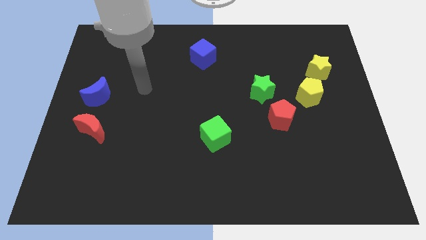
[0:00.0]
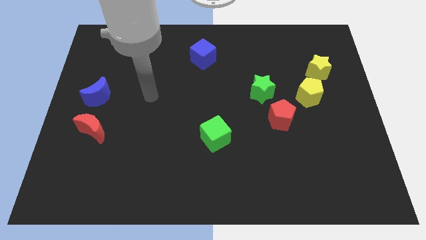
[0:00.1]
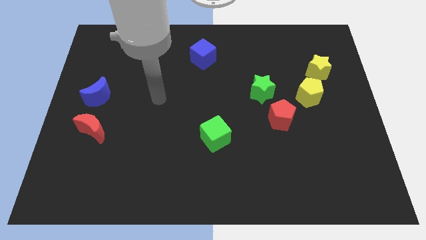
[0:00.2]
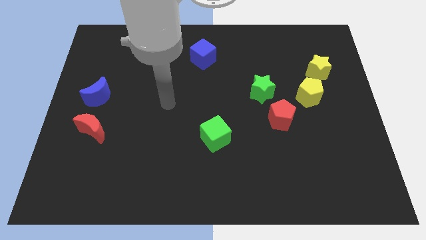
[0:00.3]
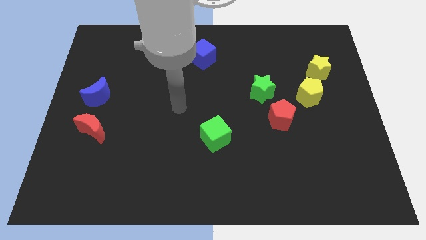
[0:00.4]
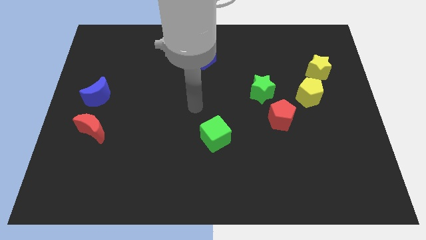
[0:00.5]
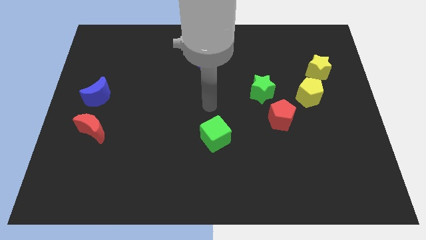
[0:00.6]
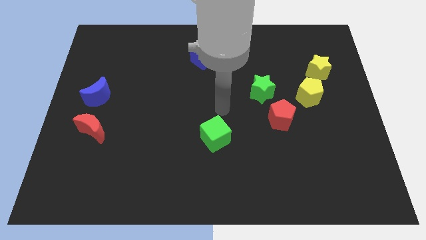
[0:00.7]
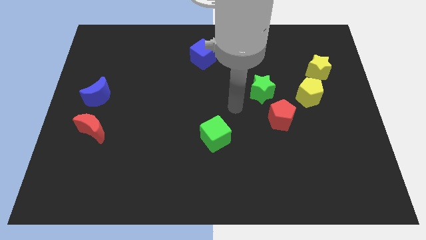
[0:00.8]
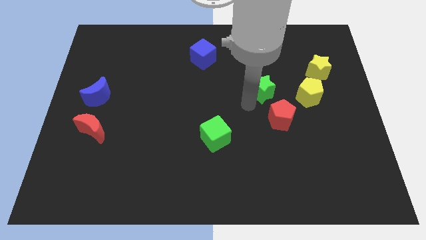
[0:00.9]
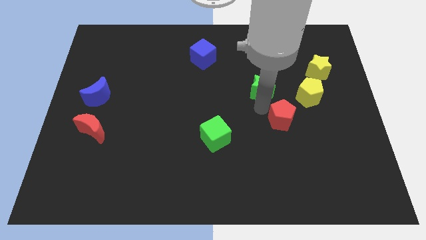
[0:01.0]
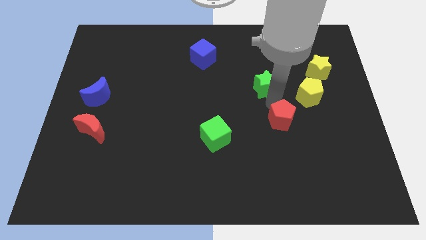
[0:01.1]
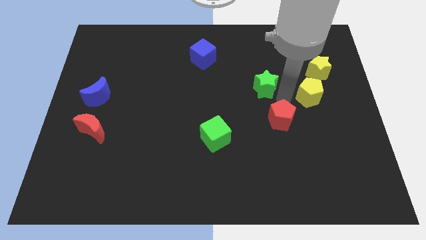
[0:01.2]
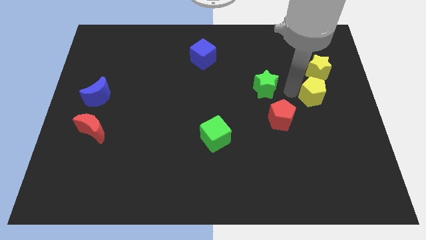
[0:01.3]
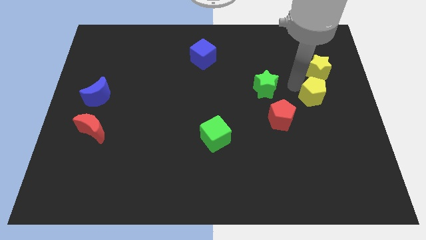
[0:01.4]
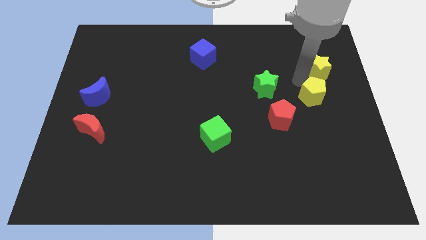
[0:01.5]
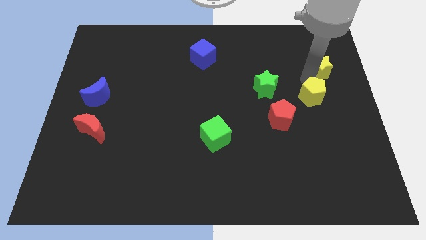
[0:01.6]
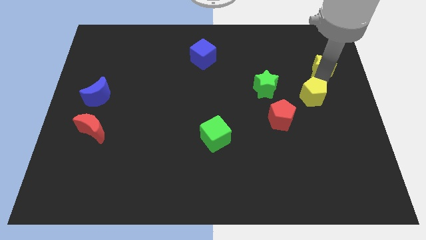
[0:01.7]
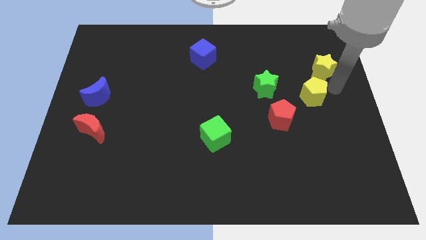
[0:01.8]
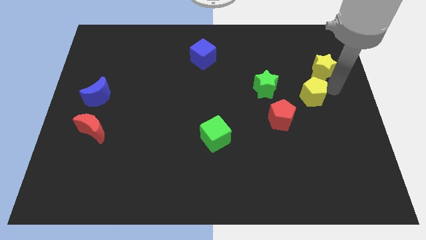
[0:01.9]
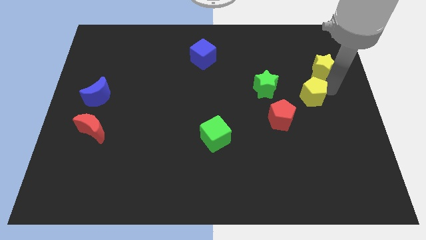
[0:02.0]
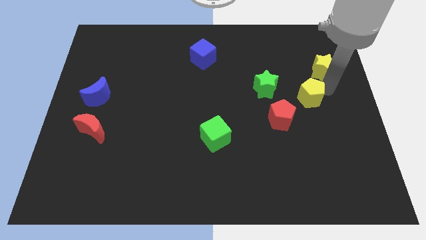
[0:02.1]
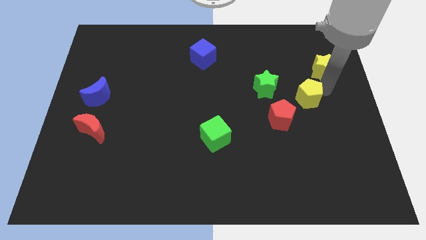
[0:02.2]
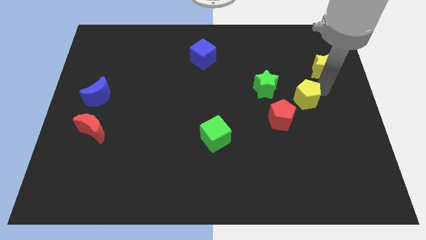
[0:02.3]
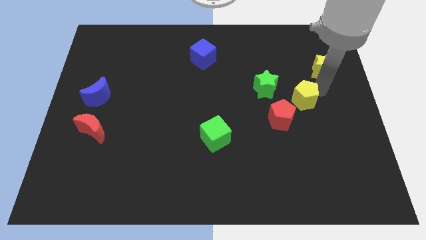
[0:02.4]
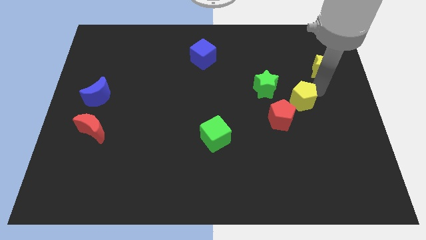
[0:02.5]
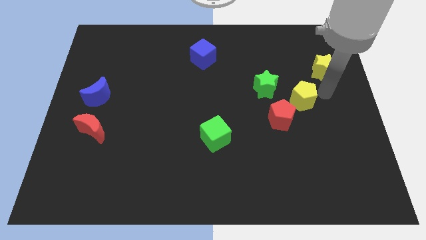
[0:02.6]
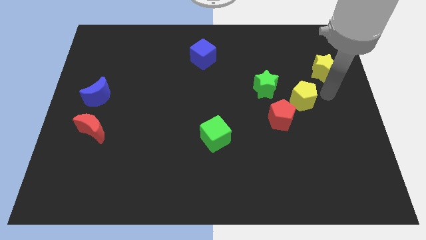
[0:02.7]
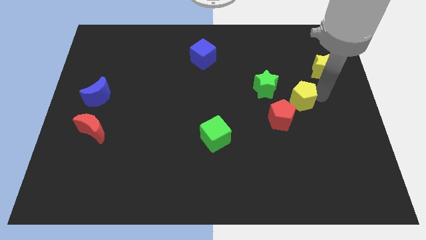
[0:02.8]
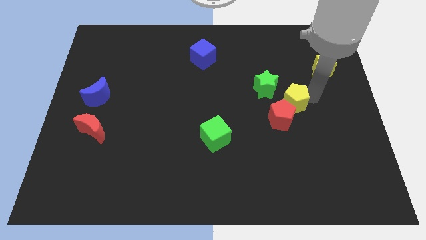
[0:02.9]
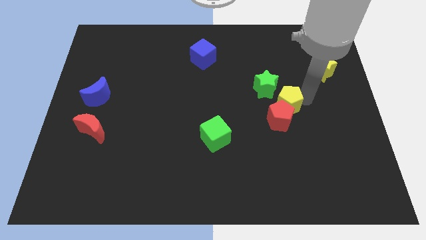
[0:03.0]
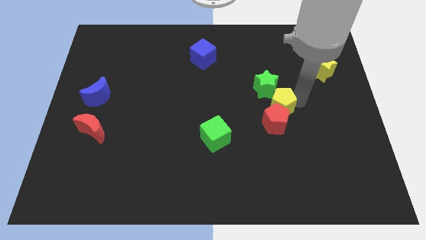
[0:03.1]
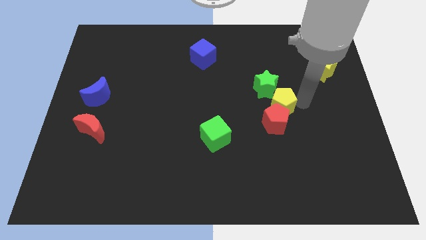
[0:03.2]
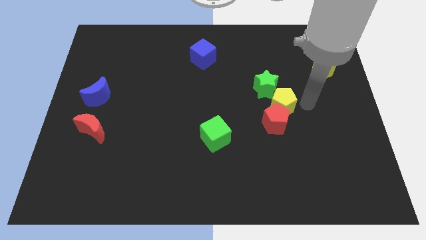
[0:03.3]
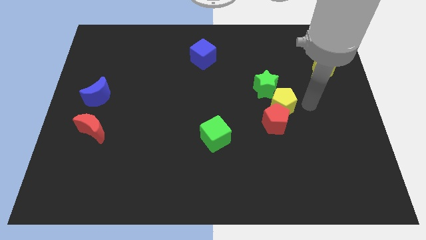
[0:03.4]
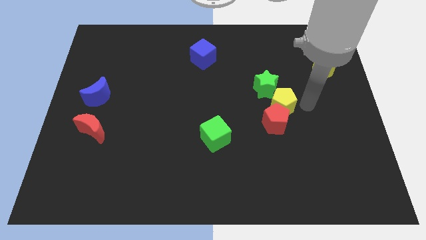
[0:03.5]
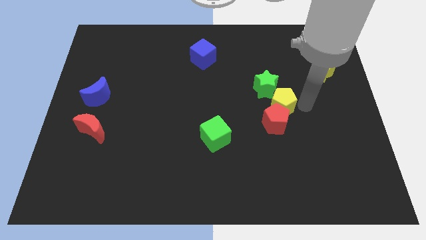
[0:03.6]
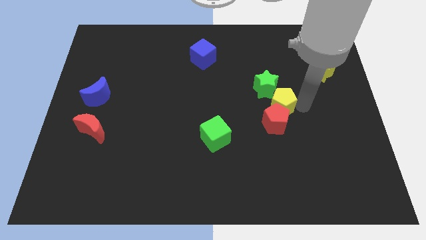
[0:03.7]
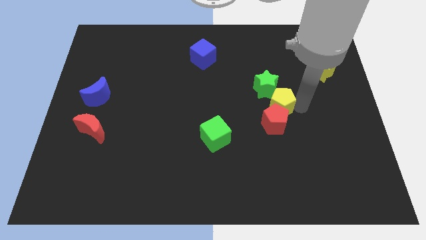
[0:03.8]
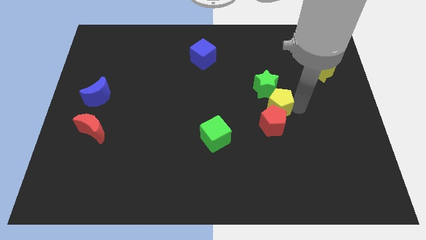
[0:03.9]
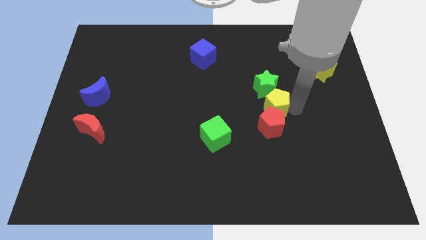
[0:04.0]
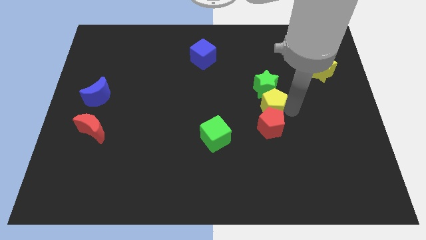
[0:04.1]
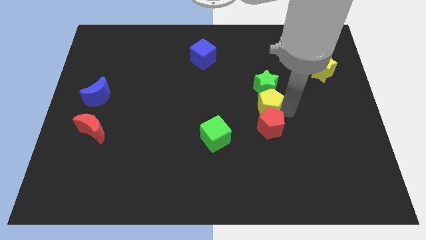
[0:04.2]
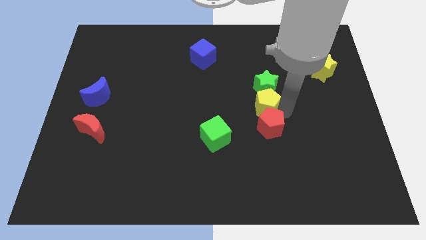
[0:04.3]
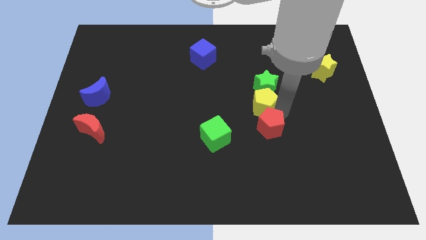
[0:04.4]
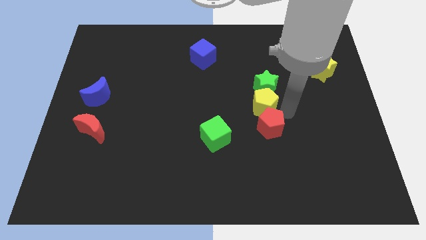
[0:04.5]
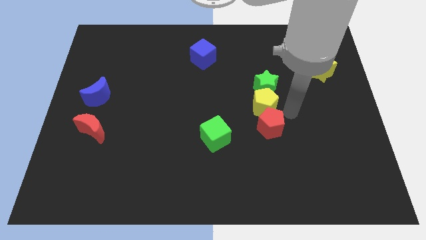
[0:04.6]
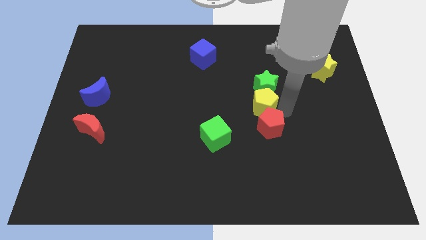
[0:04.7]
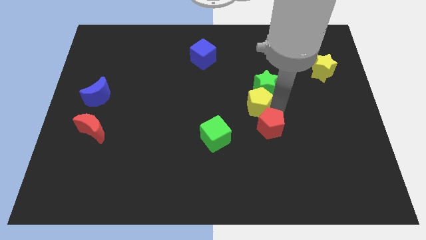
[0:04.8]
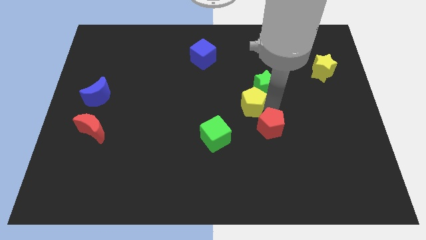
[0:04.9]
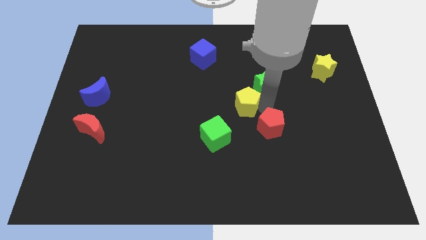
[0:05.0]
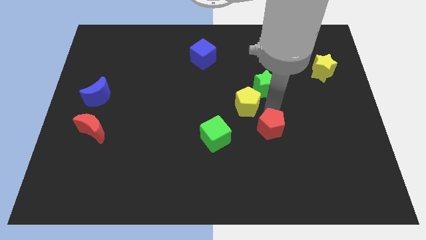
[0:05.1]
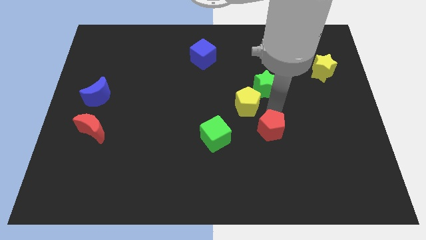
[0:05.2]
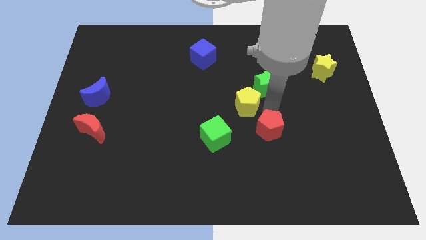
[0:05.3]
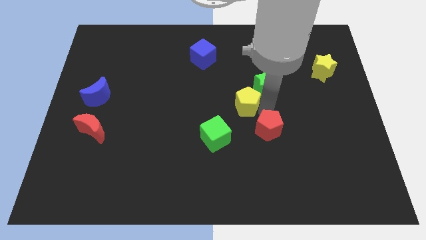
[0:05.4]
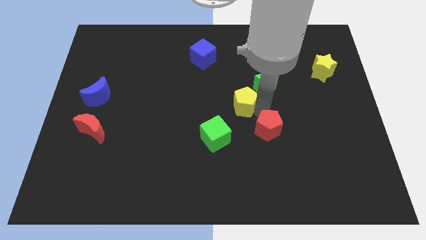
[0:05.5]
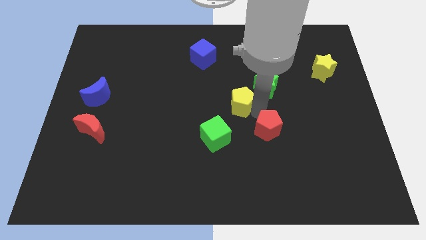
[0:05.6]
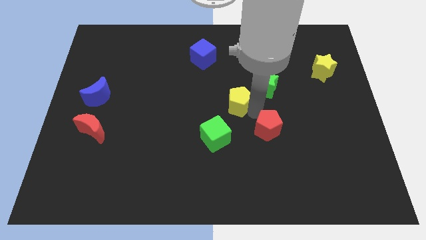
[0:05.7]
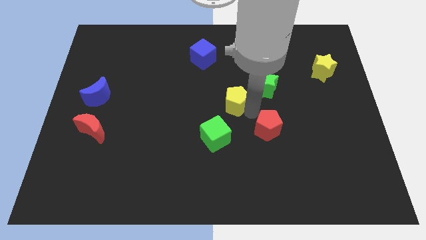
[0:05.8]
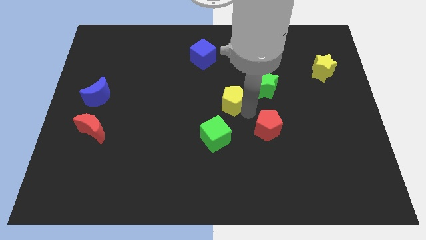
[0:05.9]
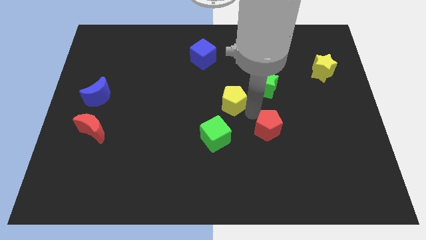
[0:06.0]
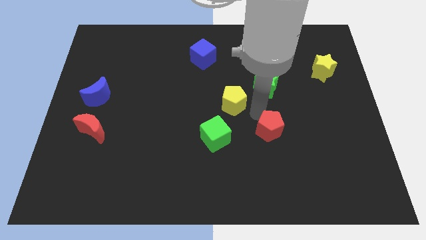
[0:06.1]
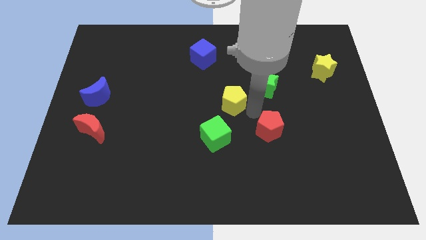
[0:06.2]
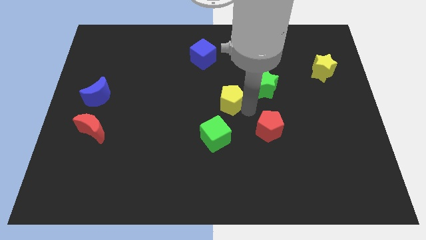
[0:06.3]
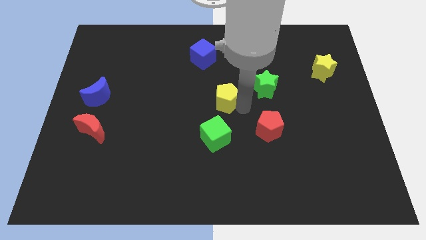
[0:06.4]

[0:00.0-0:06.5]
move the yellow pentagon to the left

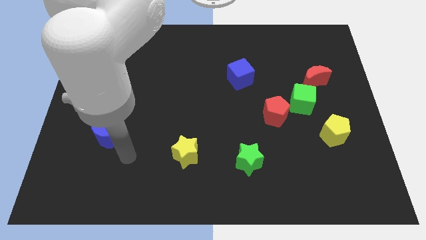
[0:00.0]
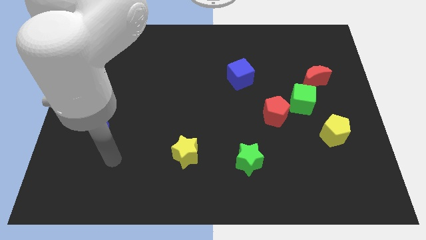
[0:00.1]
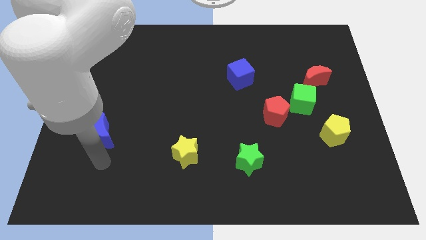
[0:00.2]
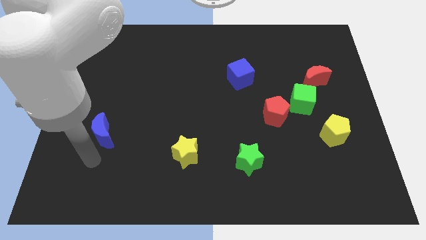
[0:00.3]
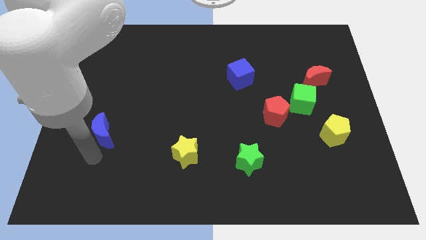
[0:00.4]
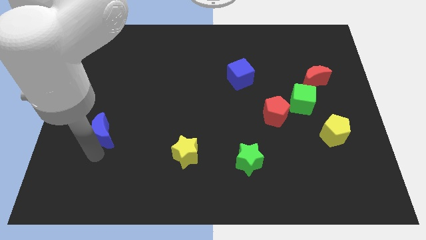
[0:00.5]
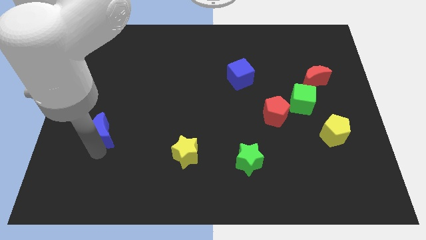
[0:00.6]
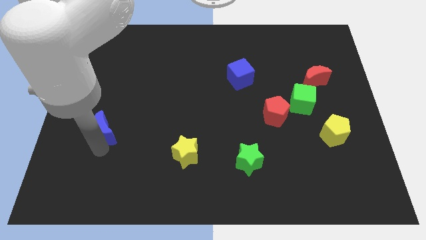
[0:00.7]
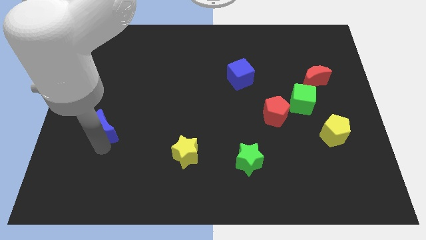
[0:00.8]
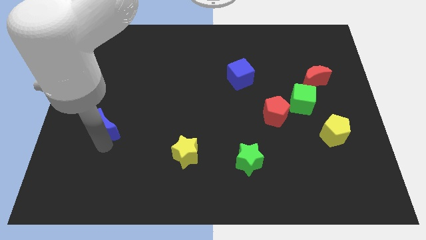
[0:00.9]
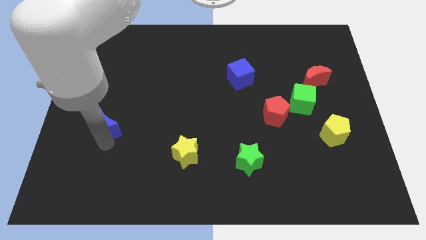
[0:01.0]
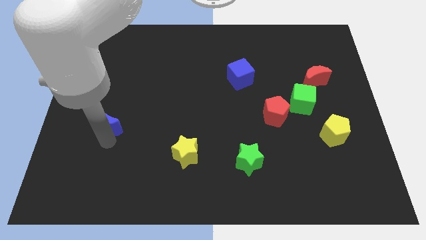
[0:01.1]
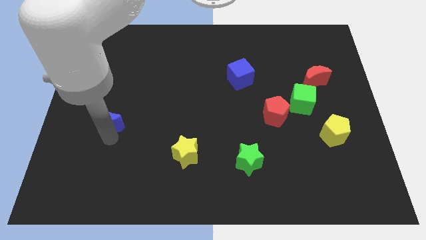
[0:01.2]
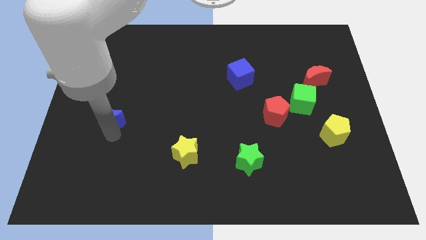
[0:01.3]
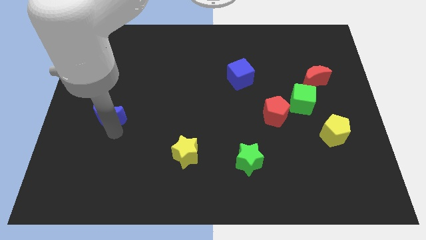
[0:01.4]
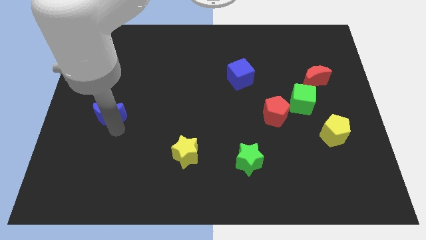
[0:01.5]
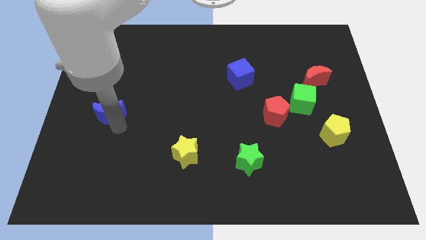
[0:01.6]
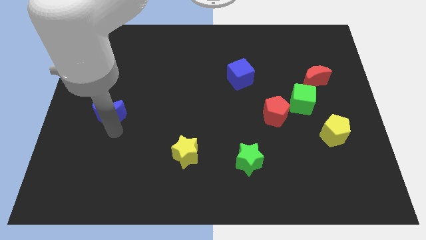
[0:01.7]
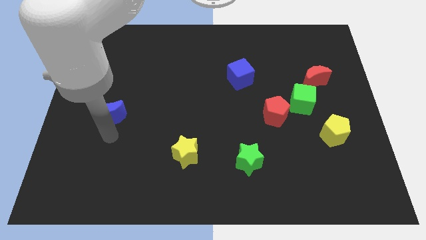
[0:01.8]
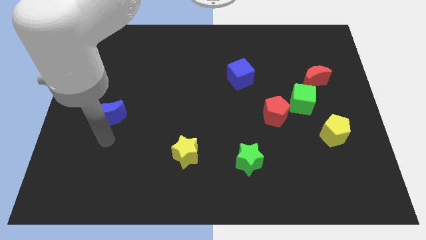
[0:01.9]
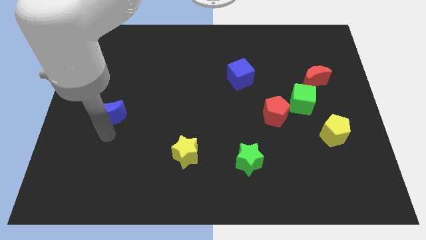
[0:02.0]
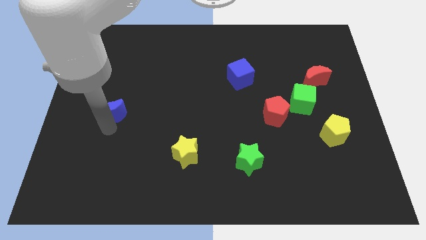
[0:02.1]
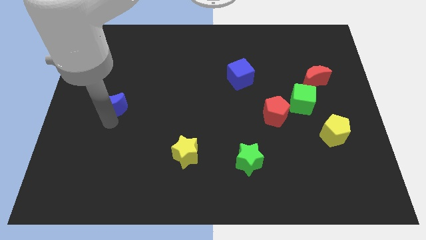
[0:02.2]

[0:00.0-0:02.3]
slightly move the blue moon up
